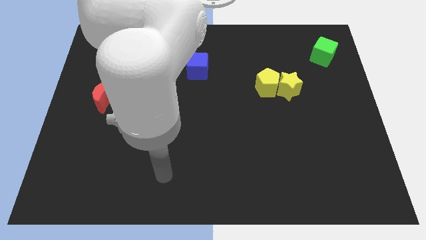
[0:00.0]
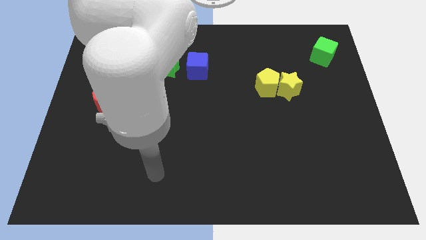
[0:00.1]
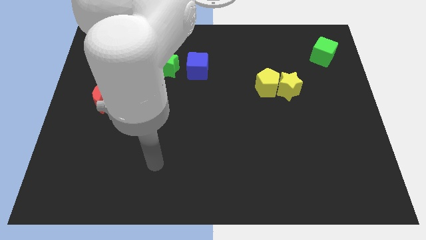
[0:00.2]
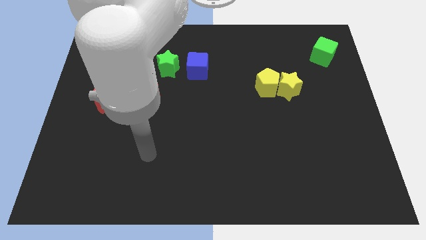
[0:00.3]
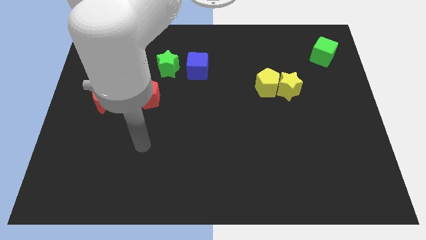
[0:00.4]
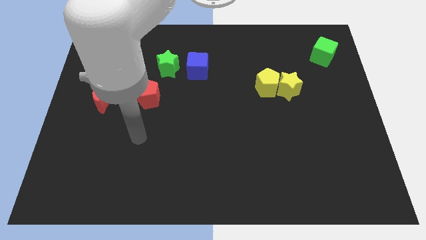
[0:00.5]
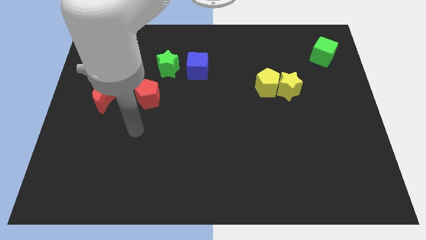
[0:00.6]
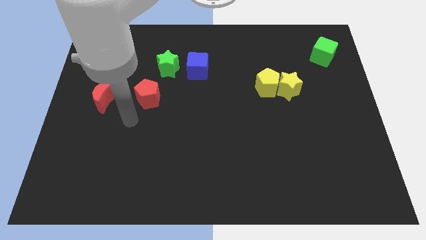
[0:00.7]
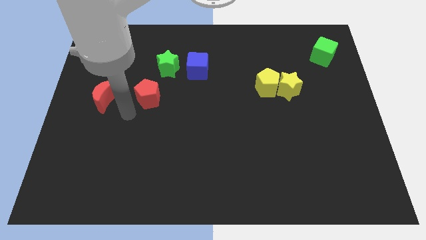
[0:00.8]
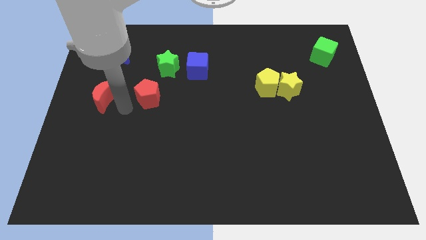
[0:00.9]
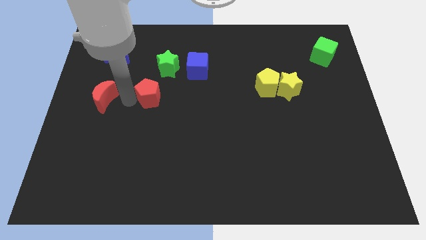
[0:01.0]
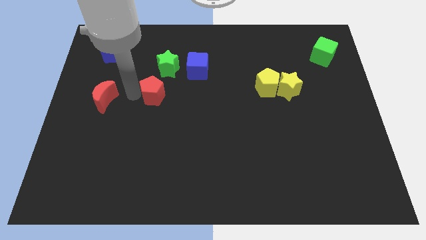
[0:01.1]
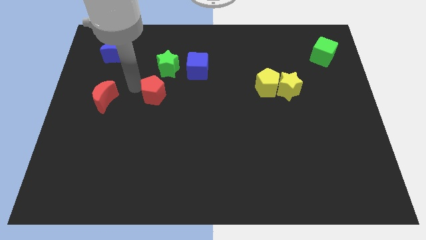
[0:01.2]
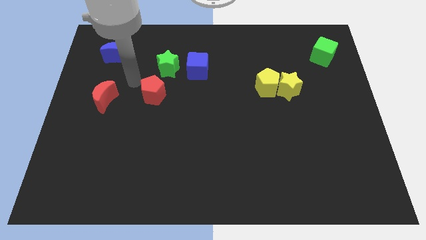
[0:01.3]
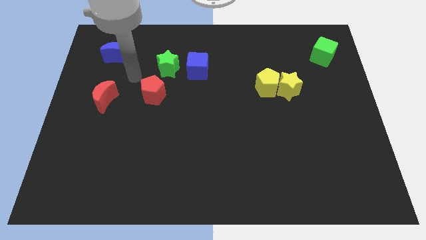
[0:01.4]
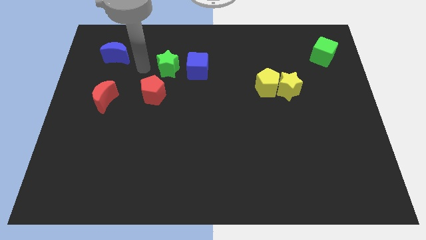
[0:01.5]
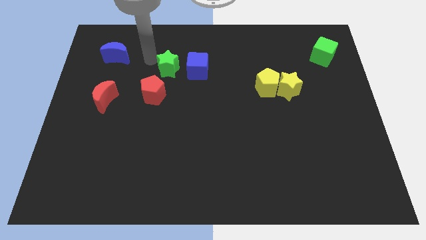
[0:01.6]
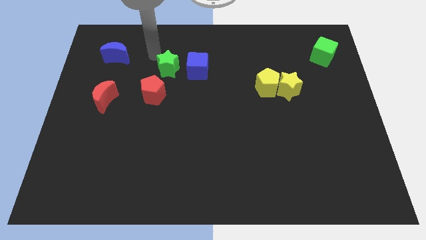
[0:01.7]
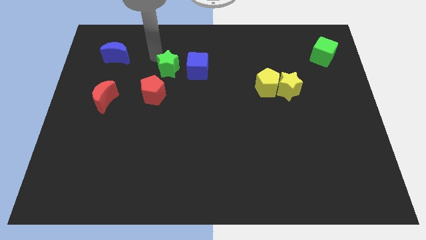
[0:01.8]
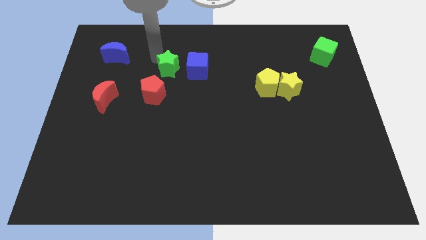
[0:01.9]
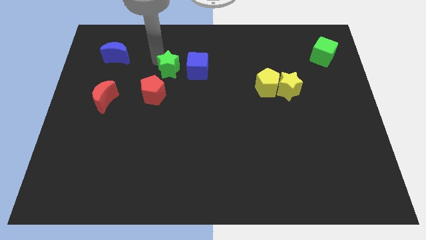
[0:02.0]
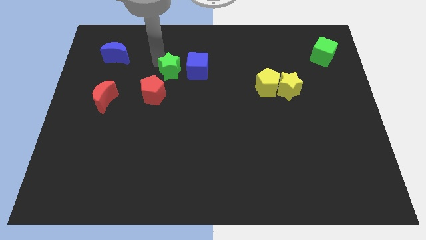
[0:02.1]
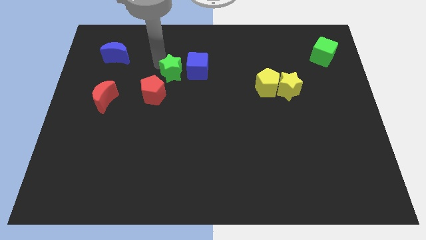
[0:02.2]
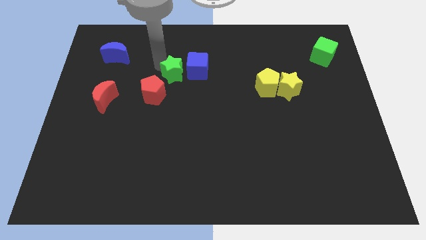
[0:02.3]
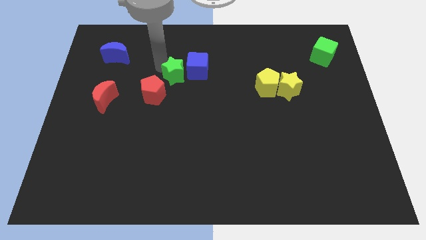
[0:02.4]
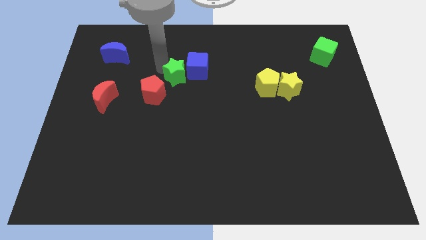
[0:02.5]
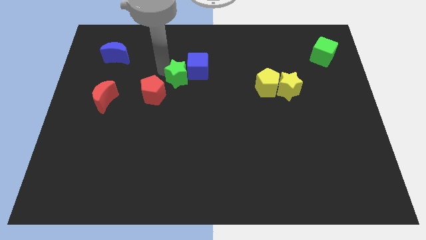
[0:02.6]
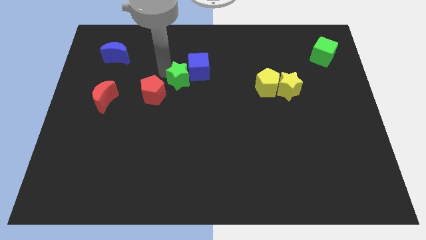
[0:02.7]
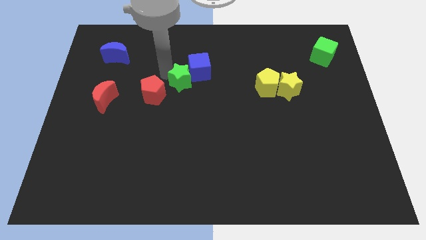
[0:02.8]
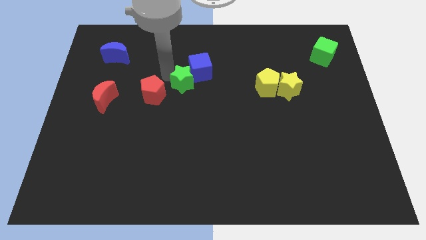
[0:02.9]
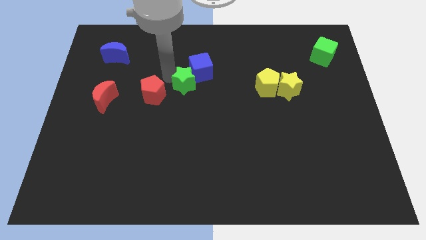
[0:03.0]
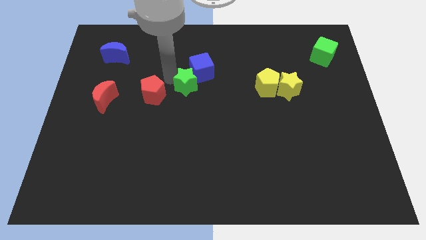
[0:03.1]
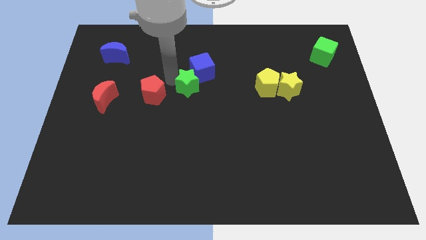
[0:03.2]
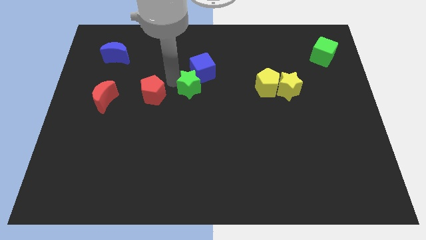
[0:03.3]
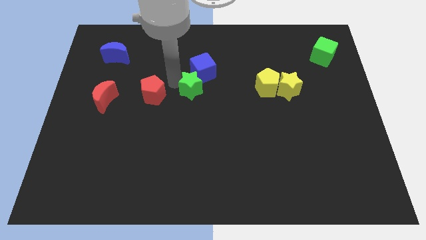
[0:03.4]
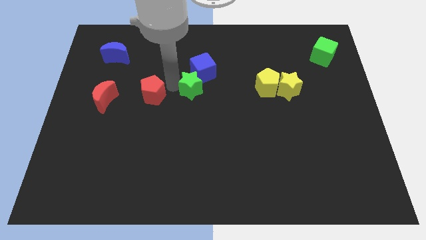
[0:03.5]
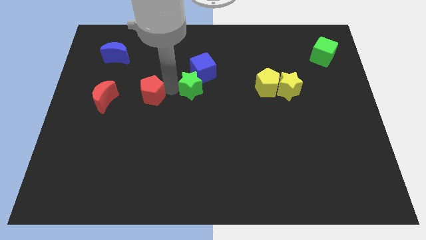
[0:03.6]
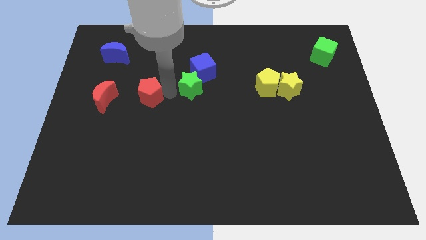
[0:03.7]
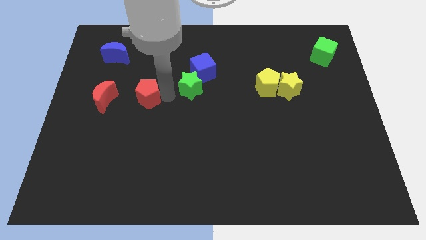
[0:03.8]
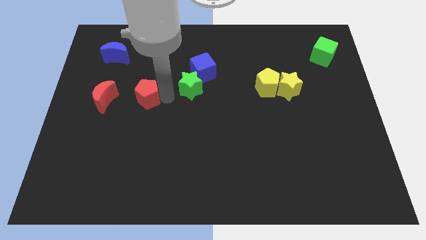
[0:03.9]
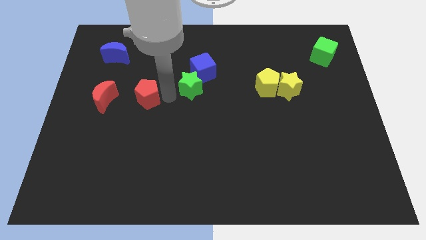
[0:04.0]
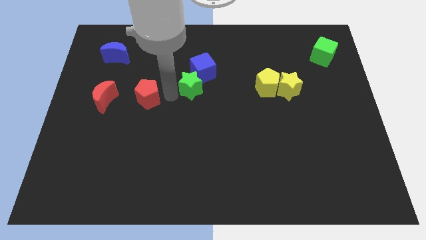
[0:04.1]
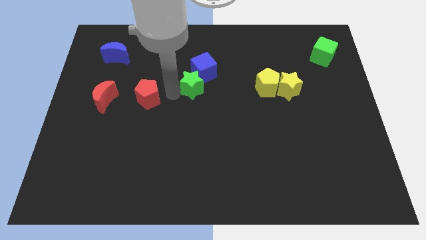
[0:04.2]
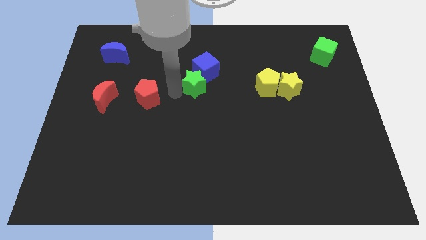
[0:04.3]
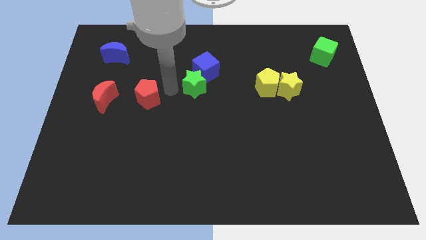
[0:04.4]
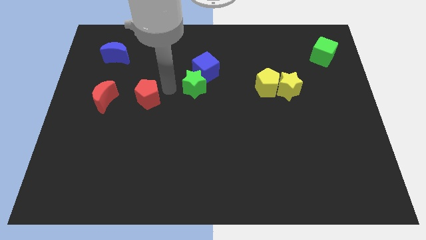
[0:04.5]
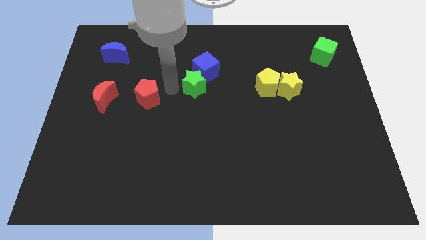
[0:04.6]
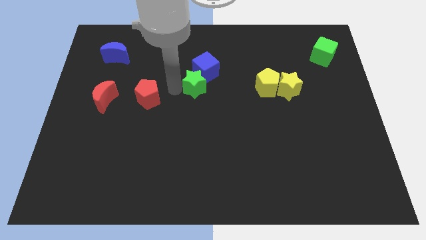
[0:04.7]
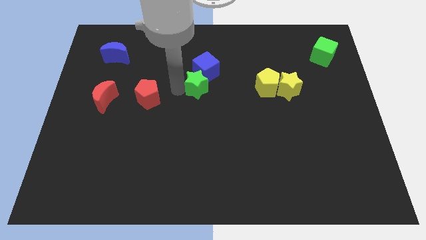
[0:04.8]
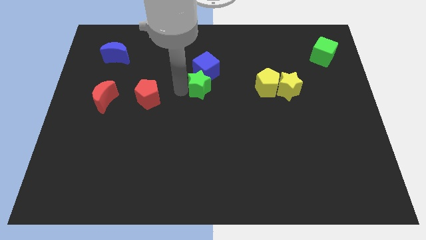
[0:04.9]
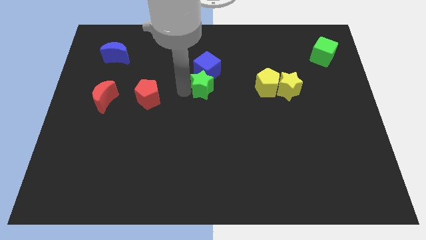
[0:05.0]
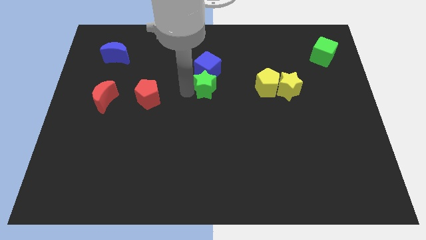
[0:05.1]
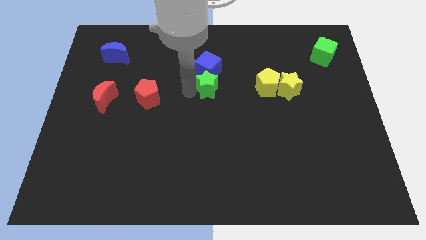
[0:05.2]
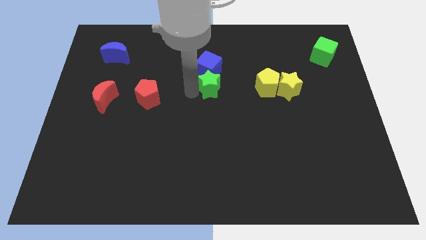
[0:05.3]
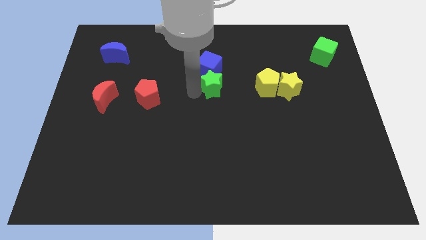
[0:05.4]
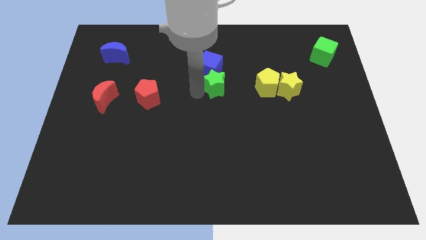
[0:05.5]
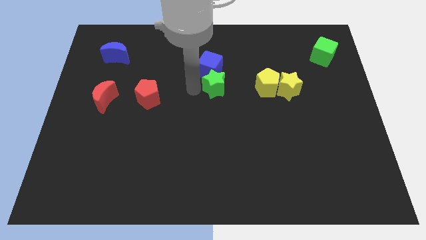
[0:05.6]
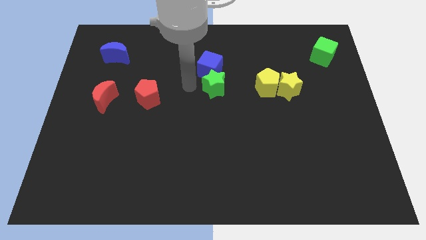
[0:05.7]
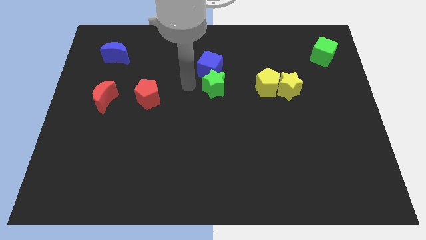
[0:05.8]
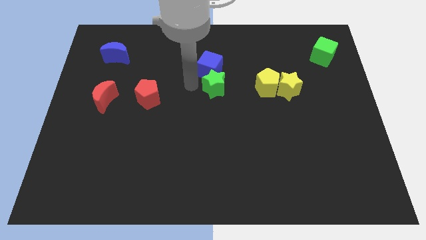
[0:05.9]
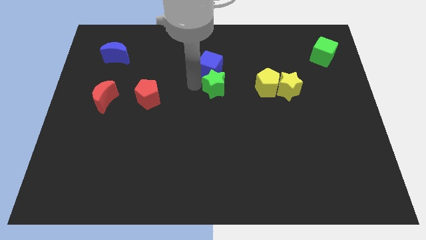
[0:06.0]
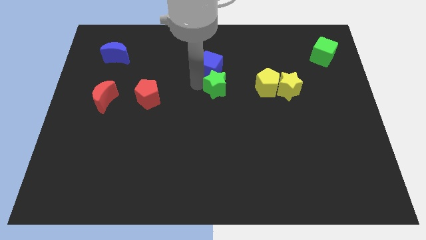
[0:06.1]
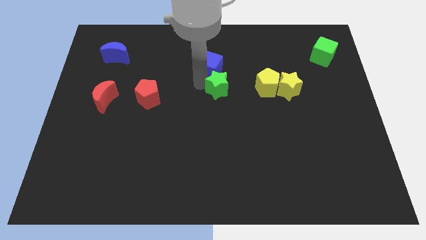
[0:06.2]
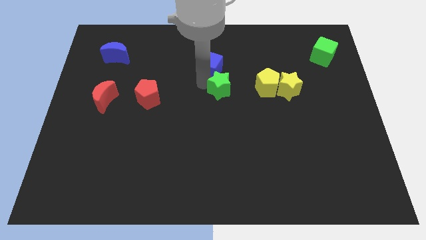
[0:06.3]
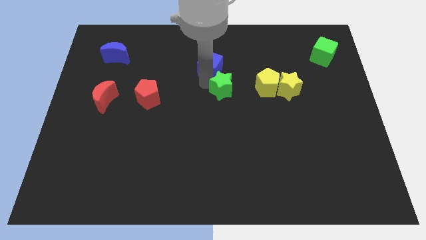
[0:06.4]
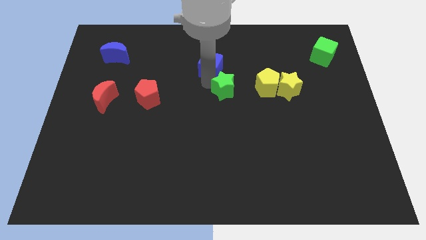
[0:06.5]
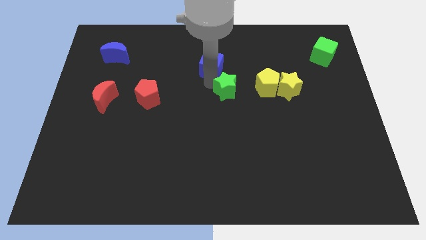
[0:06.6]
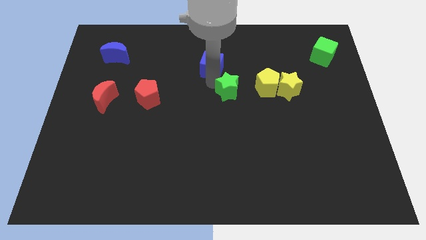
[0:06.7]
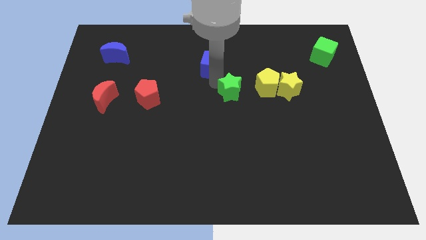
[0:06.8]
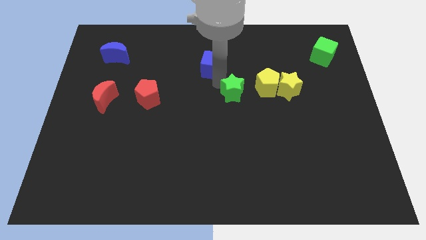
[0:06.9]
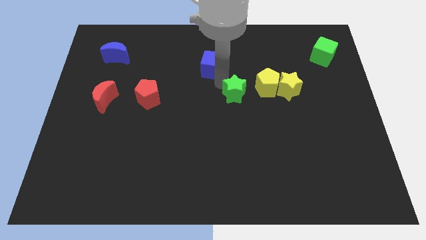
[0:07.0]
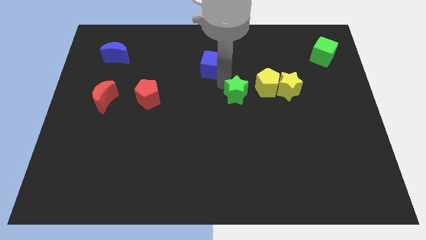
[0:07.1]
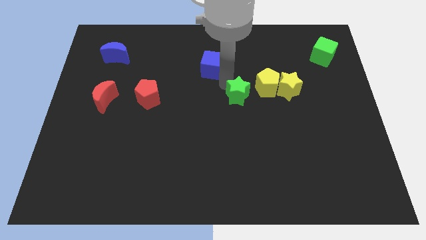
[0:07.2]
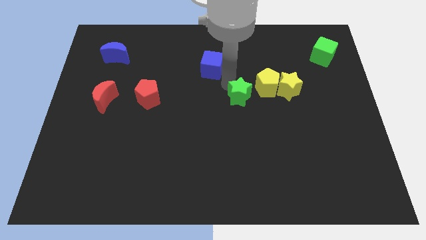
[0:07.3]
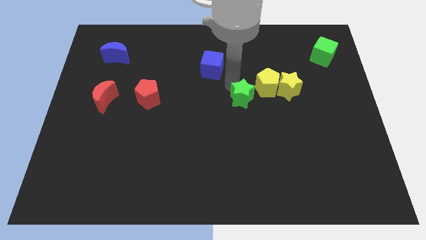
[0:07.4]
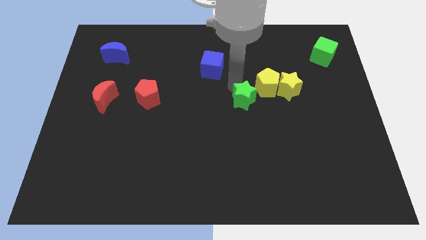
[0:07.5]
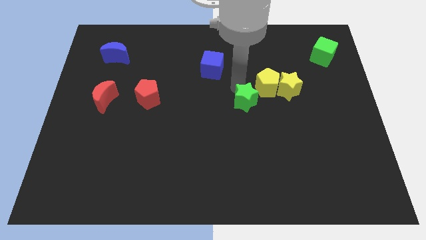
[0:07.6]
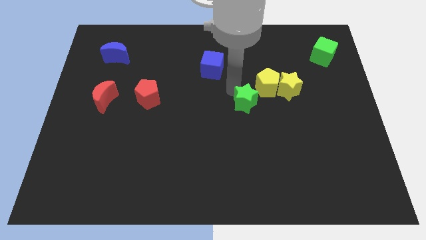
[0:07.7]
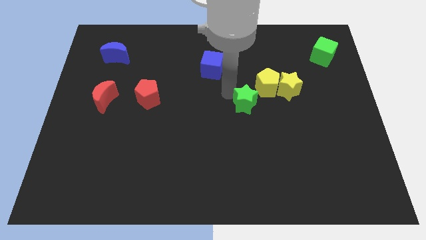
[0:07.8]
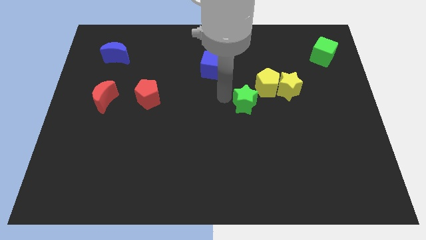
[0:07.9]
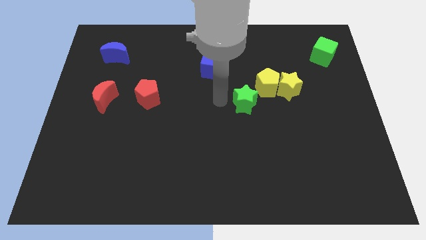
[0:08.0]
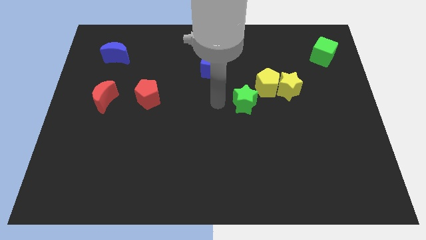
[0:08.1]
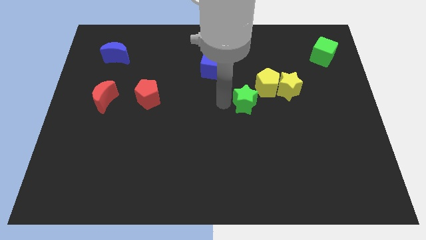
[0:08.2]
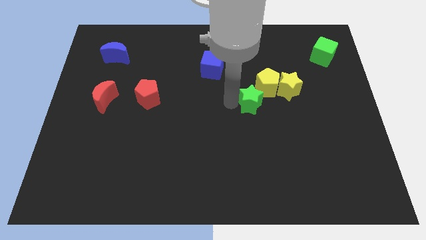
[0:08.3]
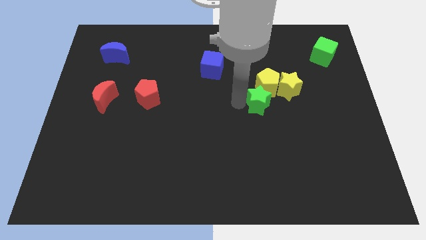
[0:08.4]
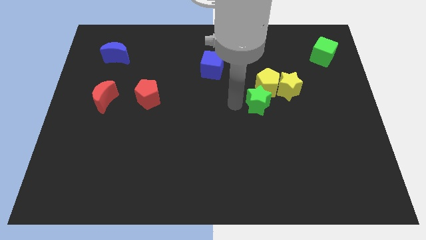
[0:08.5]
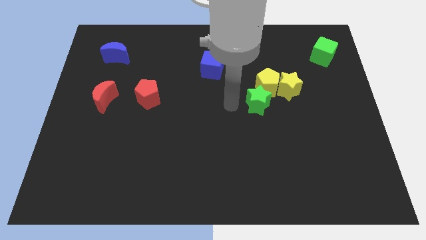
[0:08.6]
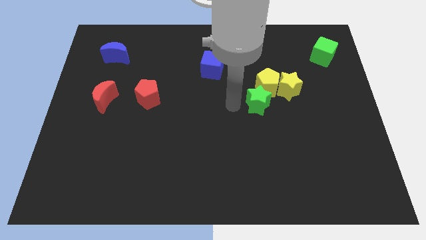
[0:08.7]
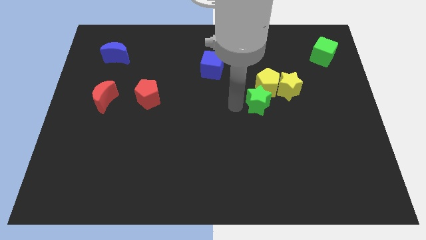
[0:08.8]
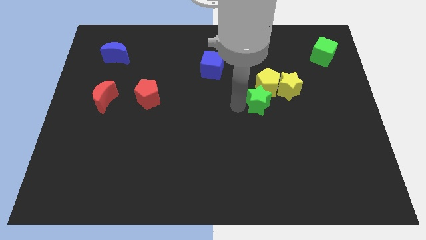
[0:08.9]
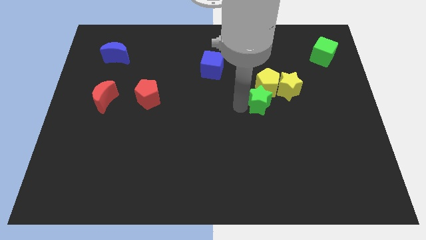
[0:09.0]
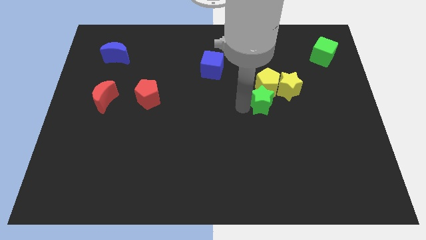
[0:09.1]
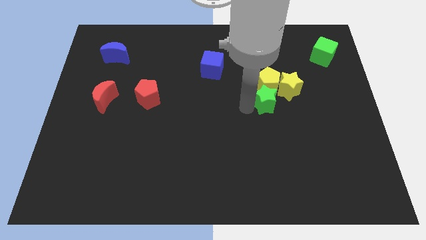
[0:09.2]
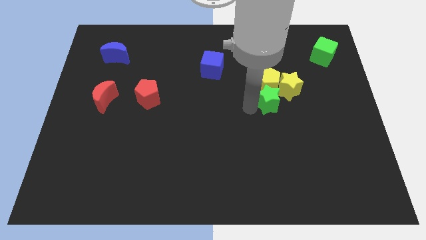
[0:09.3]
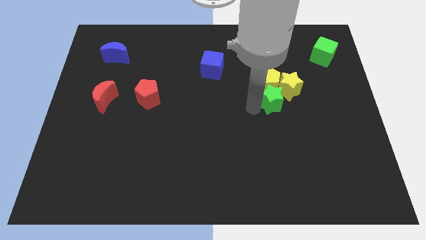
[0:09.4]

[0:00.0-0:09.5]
push the green star towards the yellow star
